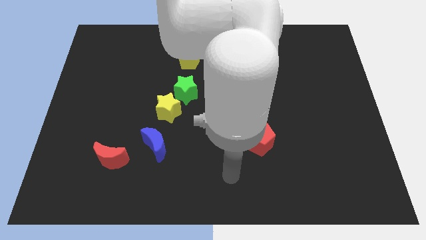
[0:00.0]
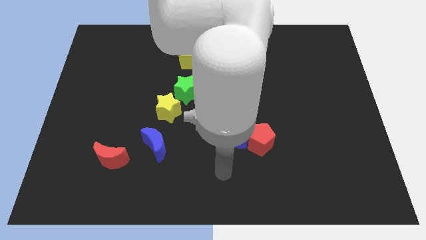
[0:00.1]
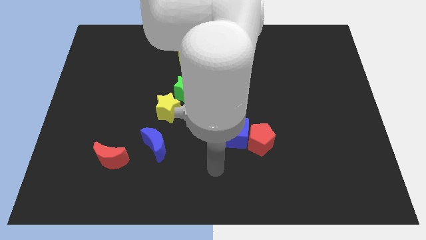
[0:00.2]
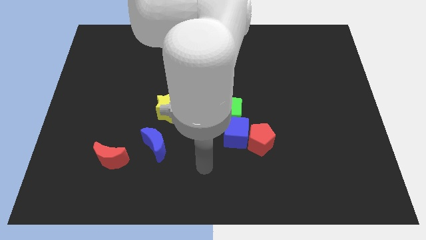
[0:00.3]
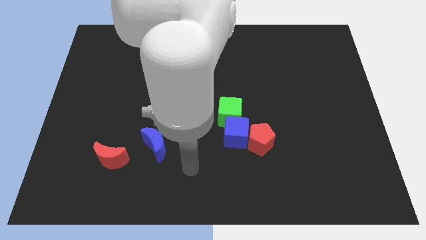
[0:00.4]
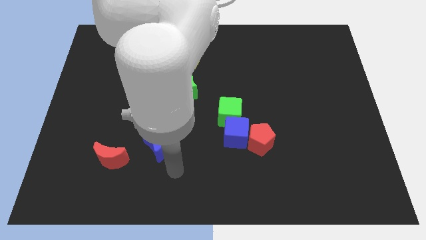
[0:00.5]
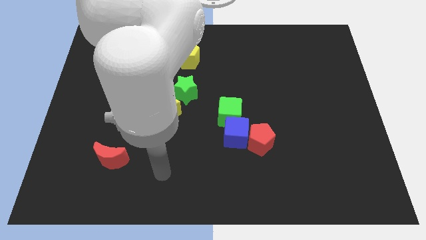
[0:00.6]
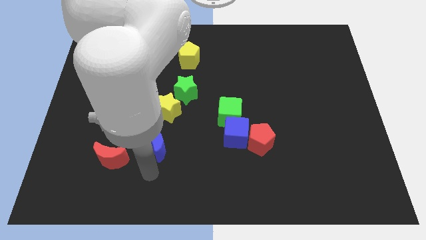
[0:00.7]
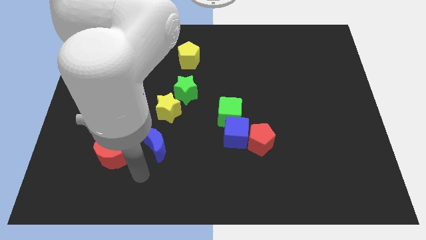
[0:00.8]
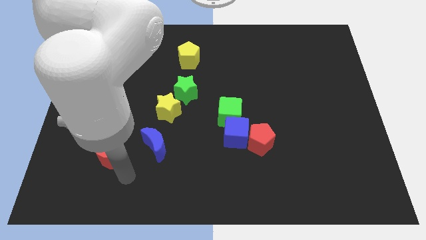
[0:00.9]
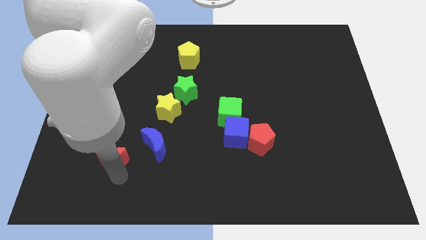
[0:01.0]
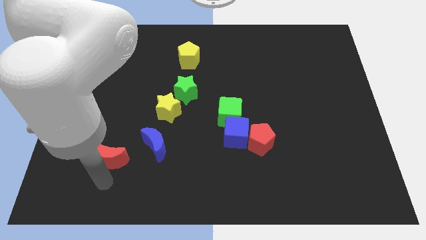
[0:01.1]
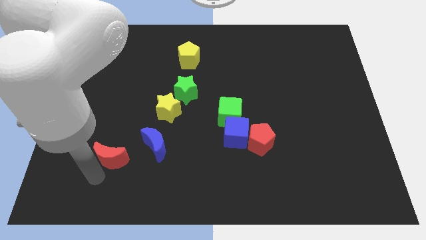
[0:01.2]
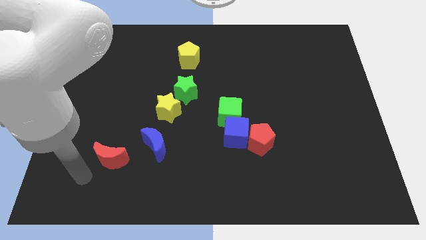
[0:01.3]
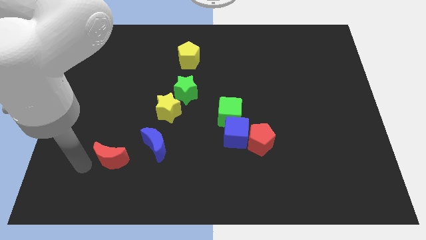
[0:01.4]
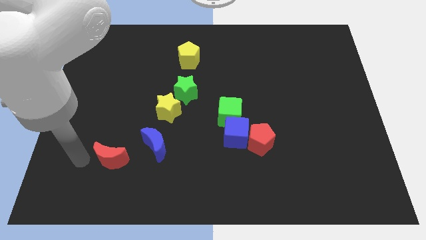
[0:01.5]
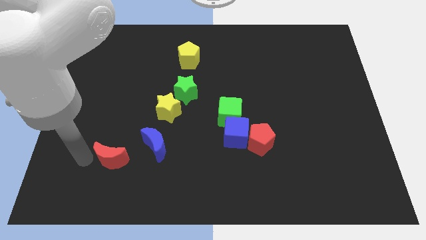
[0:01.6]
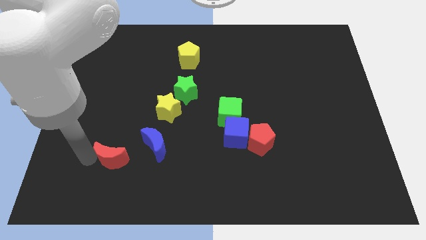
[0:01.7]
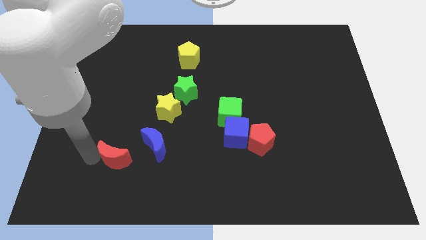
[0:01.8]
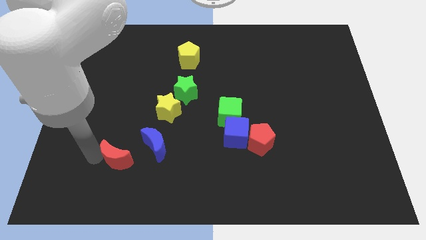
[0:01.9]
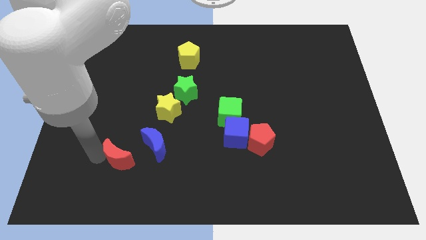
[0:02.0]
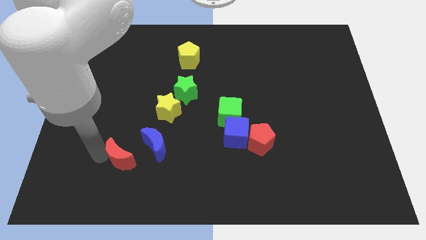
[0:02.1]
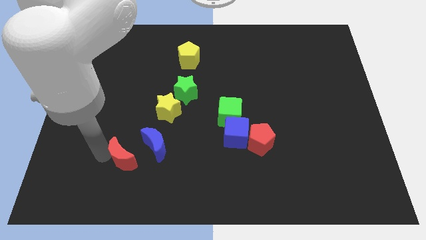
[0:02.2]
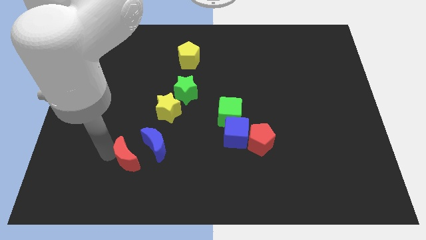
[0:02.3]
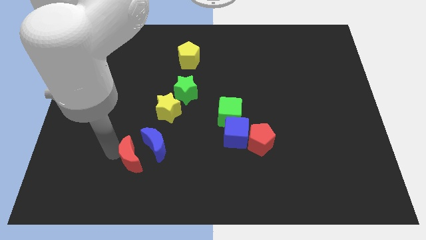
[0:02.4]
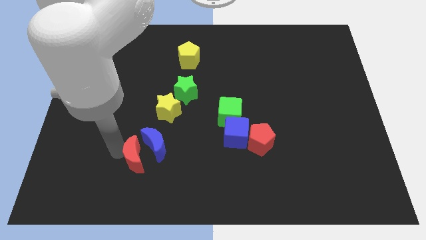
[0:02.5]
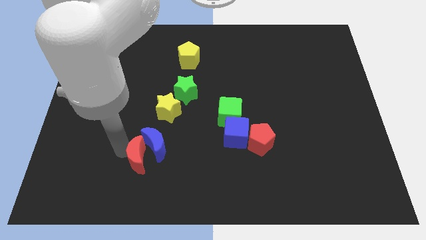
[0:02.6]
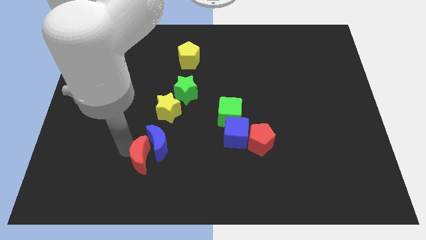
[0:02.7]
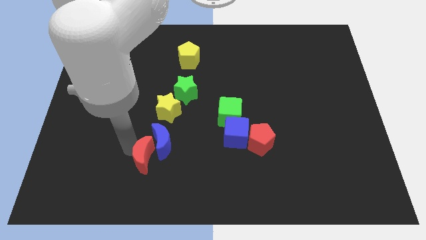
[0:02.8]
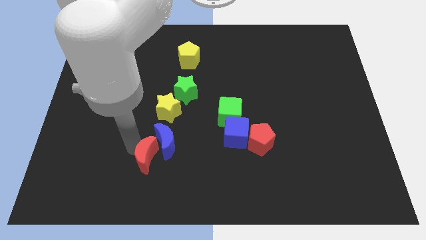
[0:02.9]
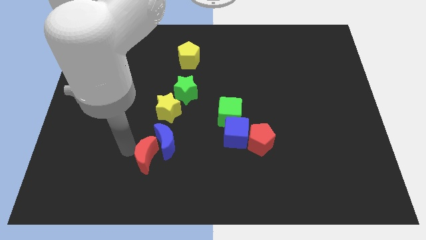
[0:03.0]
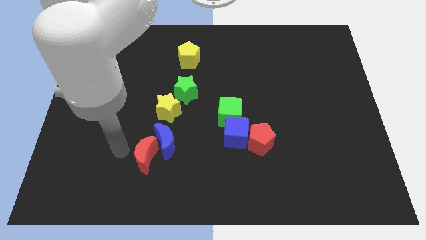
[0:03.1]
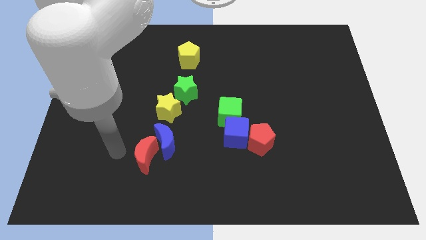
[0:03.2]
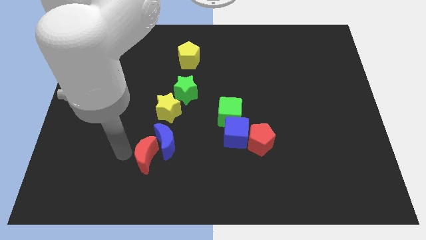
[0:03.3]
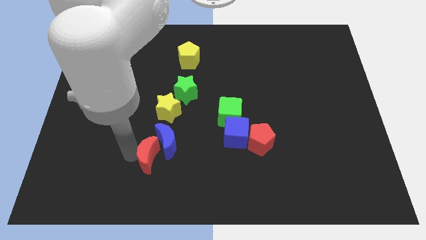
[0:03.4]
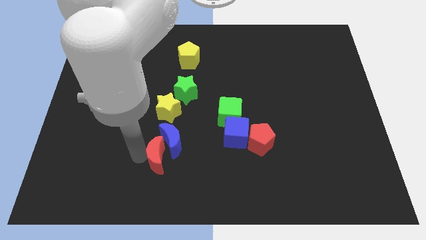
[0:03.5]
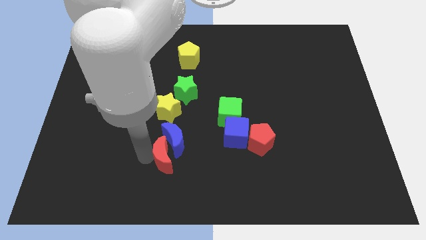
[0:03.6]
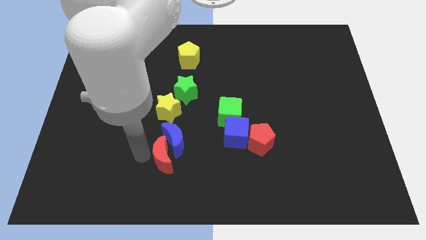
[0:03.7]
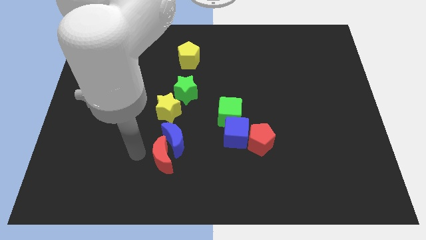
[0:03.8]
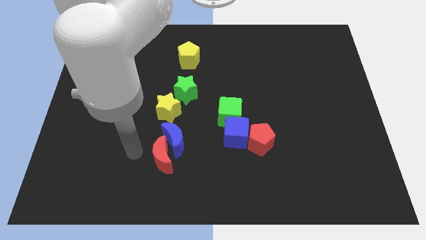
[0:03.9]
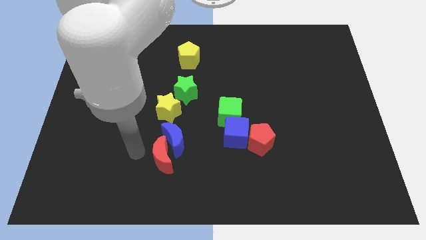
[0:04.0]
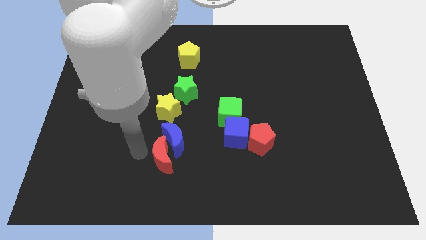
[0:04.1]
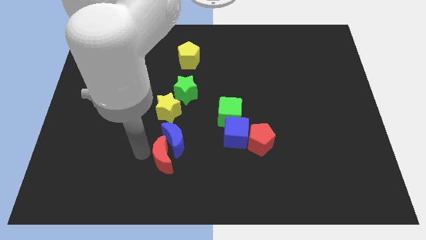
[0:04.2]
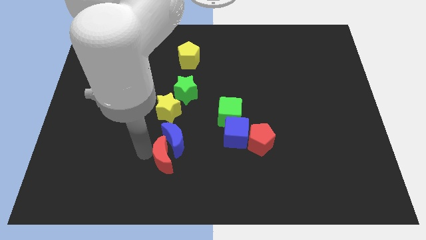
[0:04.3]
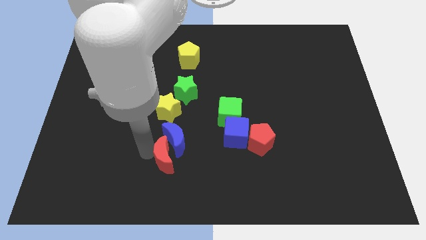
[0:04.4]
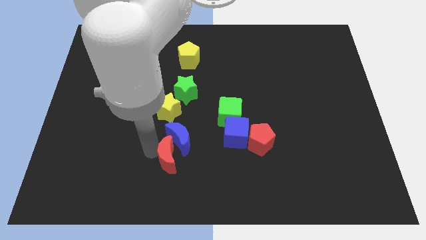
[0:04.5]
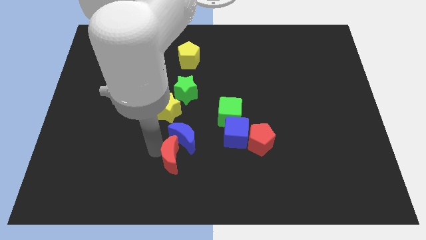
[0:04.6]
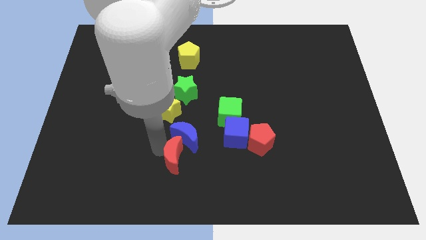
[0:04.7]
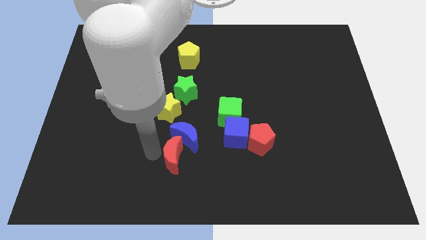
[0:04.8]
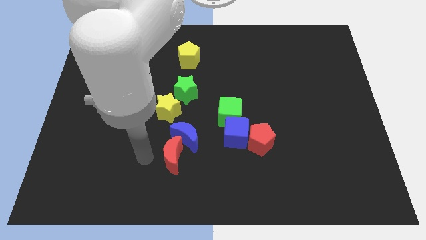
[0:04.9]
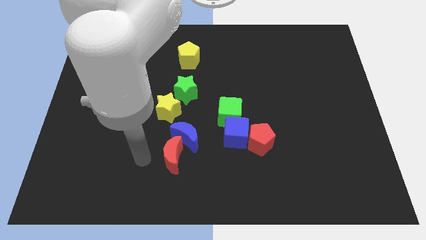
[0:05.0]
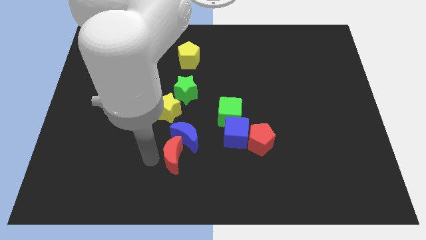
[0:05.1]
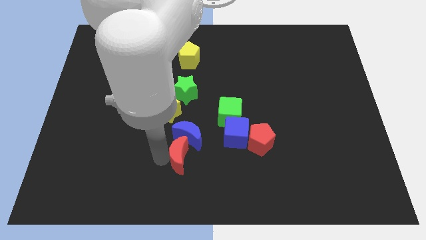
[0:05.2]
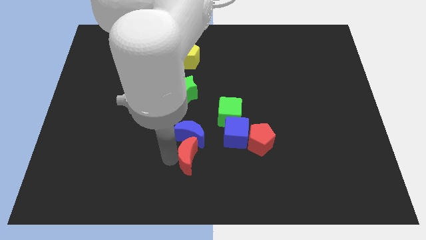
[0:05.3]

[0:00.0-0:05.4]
move the red moon to the bottom left side of the blue cube

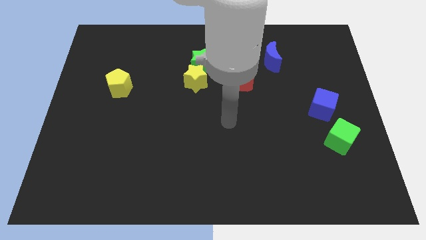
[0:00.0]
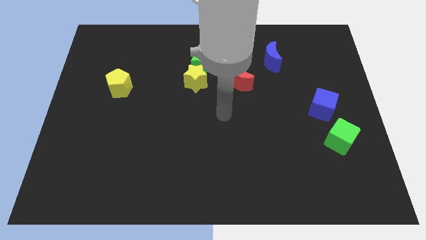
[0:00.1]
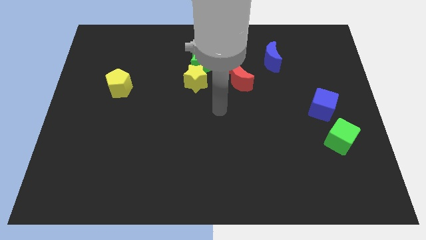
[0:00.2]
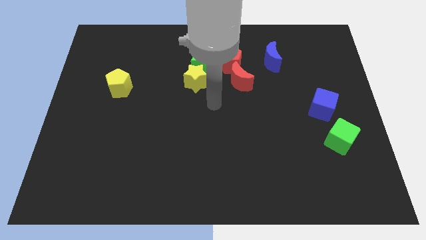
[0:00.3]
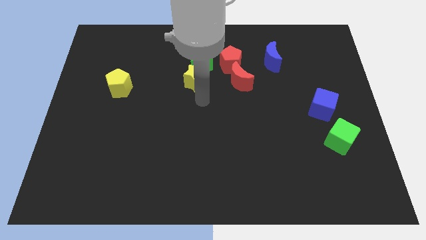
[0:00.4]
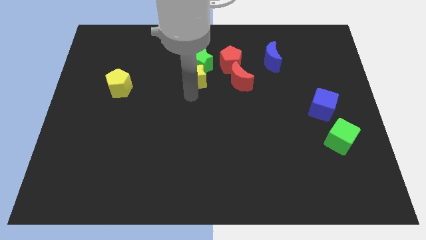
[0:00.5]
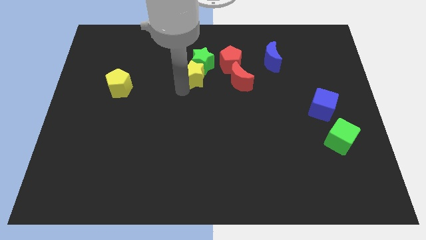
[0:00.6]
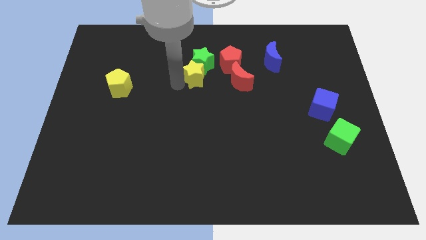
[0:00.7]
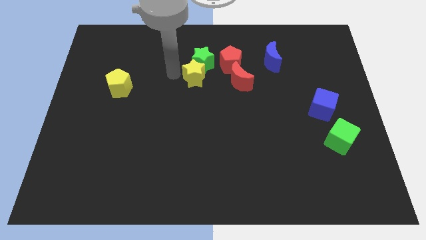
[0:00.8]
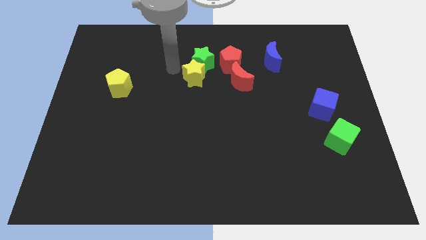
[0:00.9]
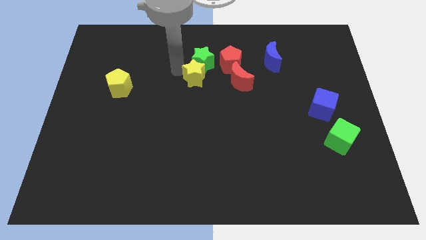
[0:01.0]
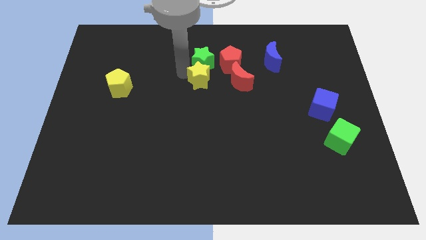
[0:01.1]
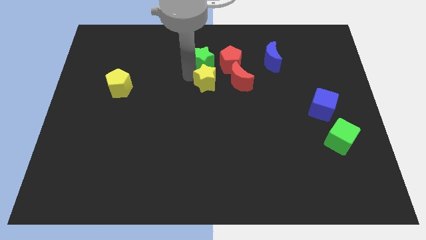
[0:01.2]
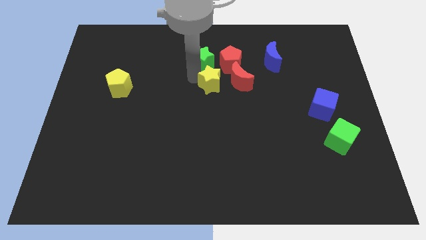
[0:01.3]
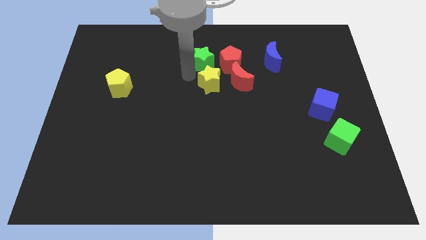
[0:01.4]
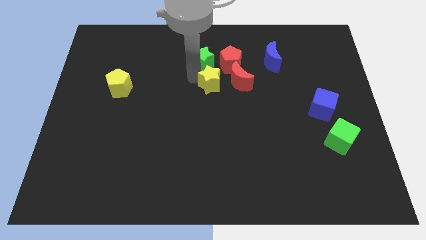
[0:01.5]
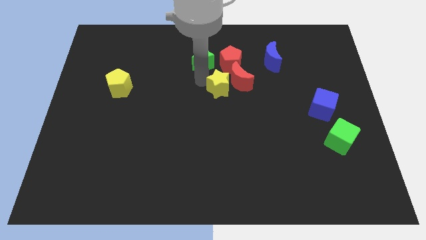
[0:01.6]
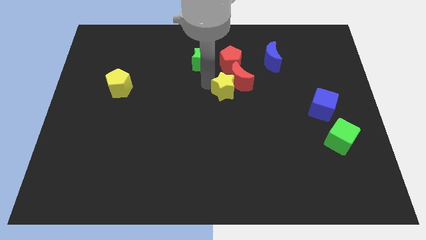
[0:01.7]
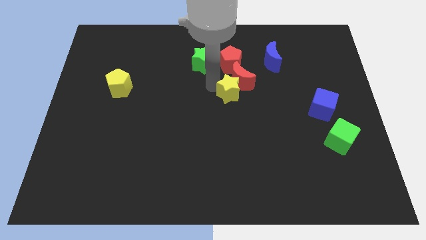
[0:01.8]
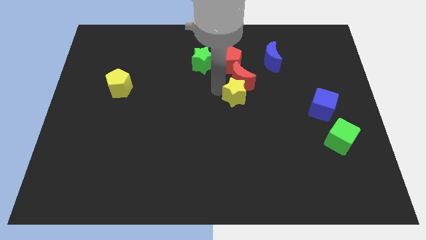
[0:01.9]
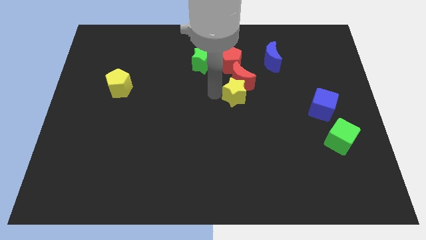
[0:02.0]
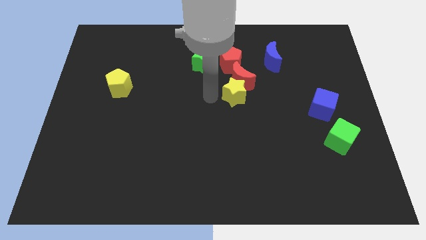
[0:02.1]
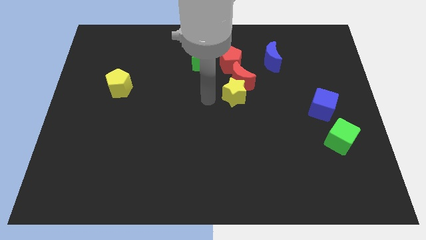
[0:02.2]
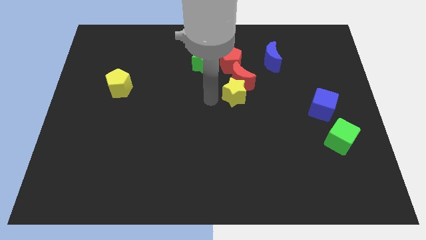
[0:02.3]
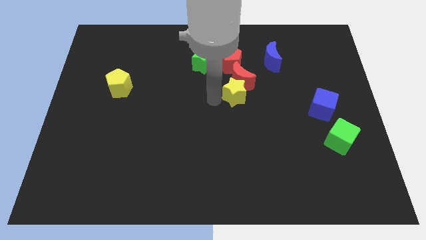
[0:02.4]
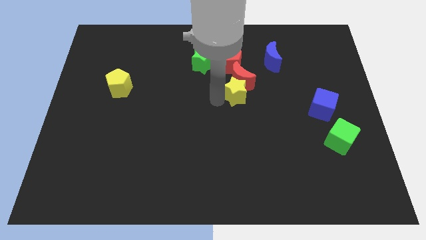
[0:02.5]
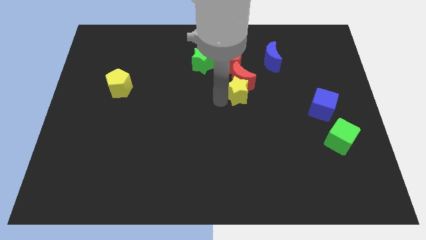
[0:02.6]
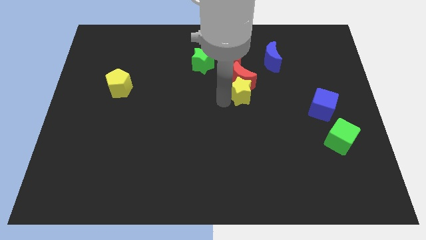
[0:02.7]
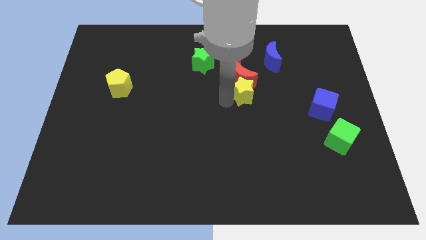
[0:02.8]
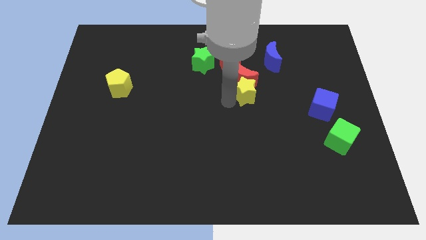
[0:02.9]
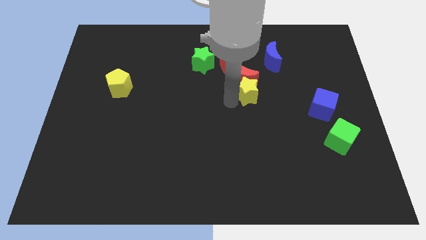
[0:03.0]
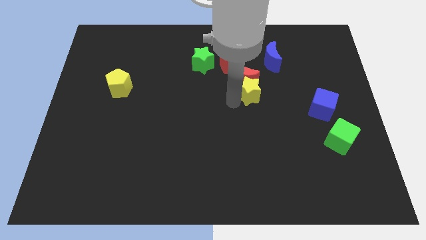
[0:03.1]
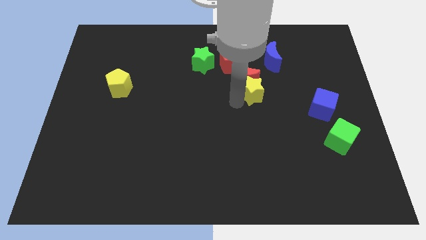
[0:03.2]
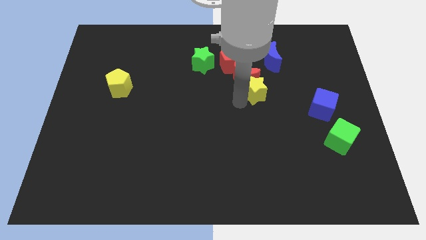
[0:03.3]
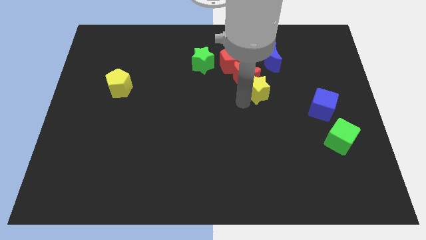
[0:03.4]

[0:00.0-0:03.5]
move the yellow star to the bottom side of the blue moon
